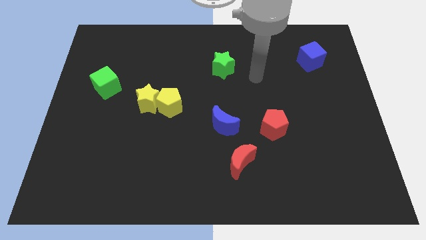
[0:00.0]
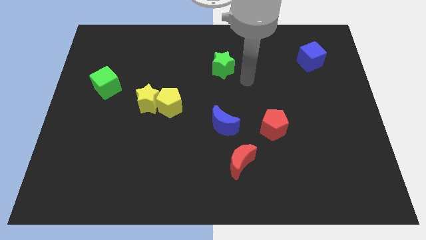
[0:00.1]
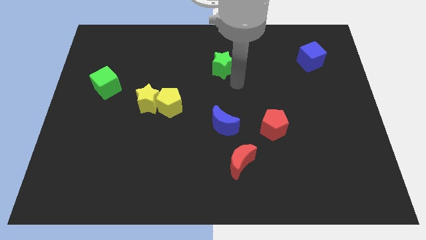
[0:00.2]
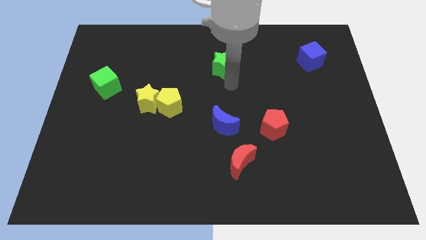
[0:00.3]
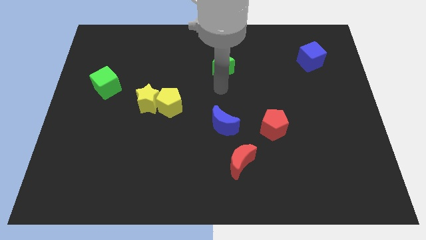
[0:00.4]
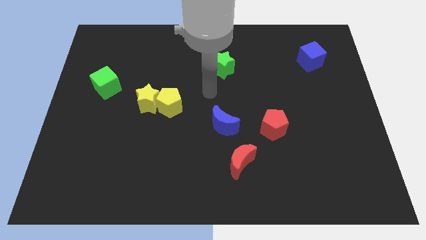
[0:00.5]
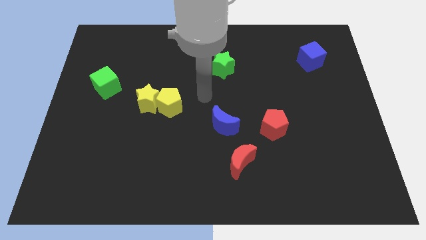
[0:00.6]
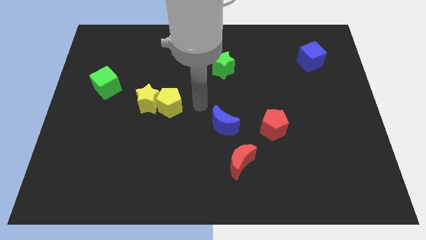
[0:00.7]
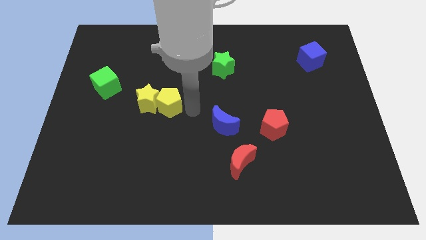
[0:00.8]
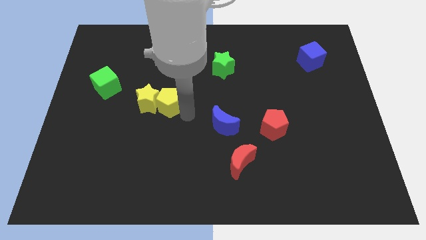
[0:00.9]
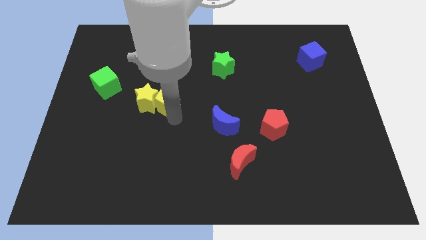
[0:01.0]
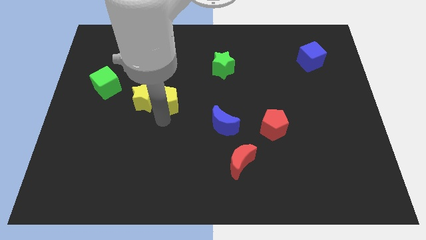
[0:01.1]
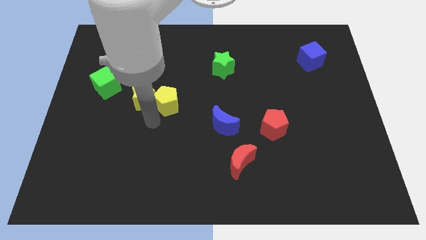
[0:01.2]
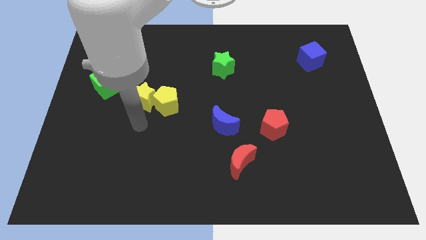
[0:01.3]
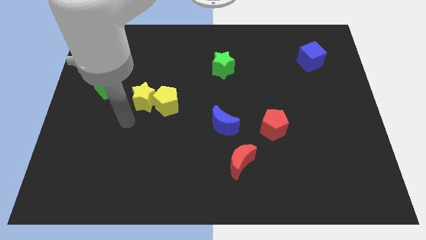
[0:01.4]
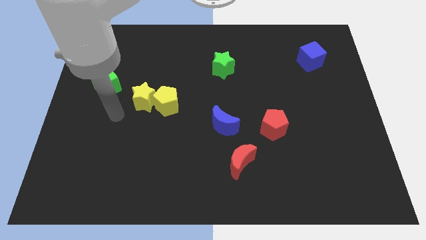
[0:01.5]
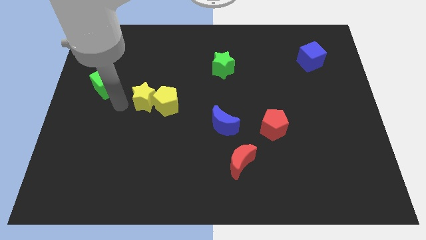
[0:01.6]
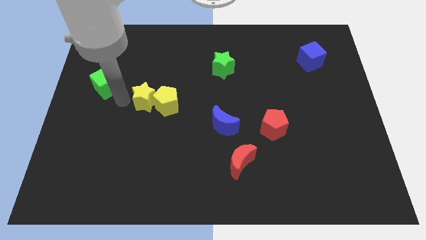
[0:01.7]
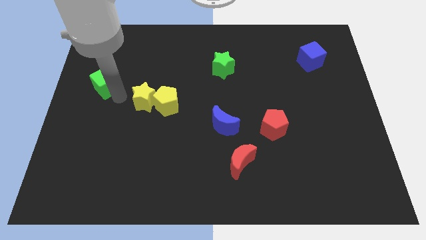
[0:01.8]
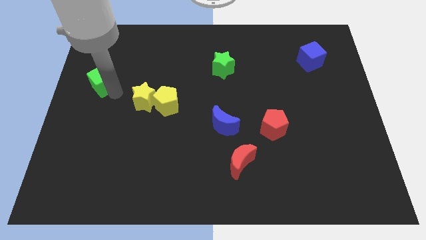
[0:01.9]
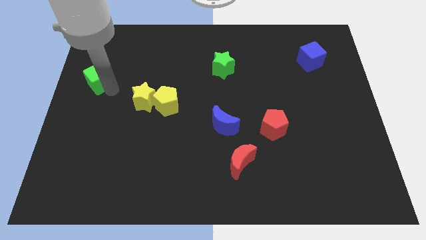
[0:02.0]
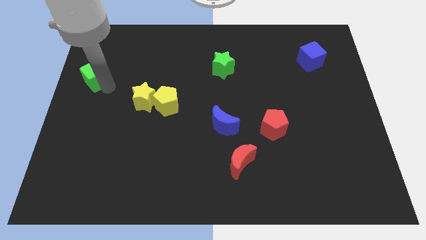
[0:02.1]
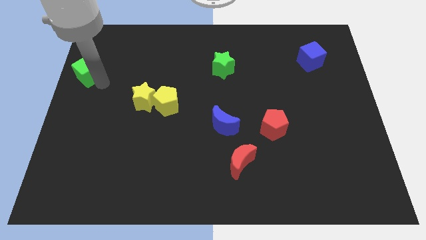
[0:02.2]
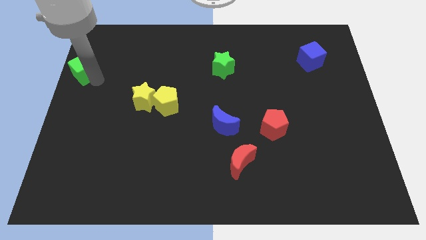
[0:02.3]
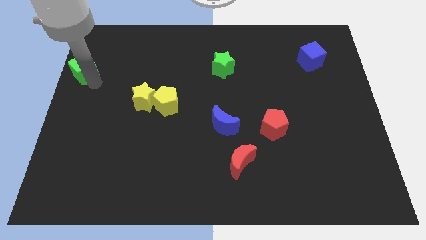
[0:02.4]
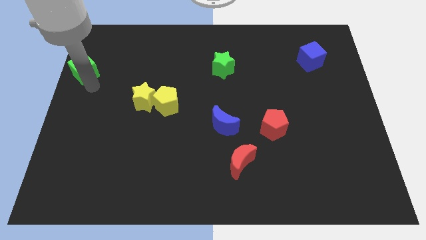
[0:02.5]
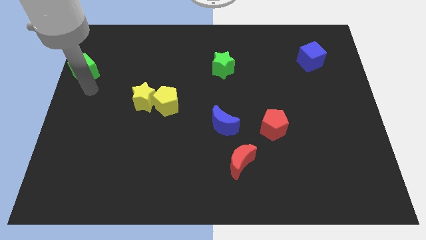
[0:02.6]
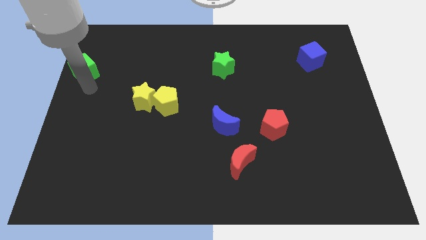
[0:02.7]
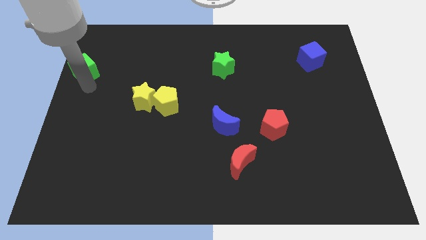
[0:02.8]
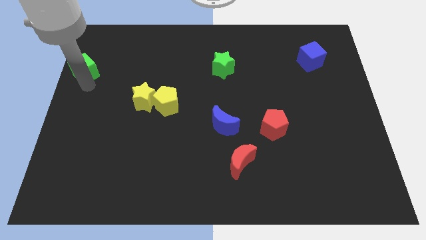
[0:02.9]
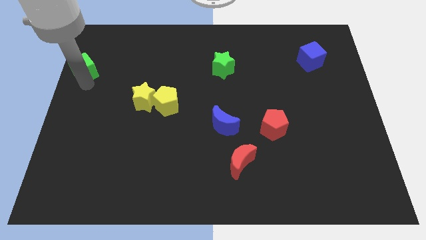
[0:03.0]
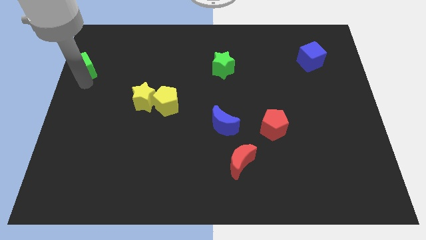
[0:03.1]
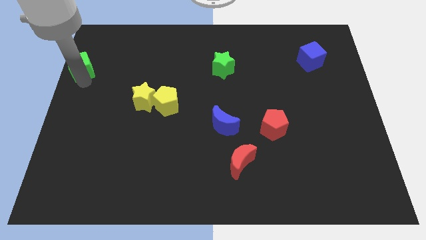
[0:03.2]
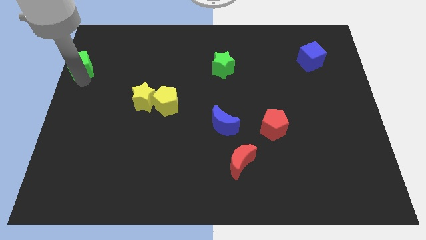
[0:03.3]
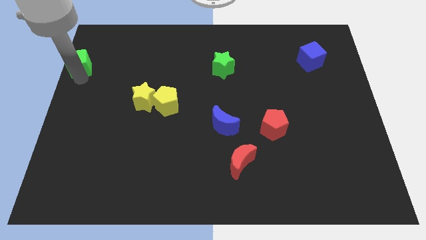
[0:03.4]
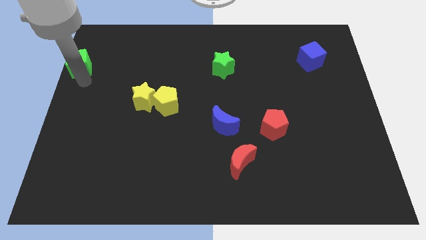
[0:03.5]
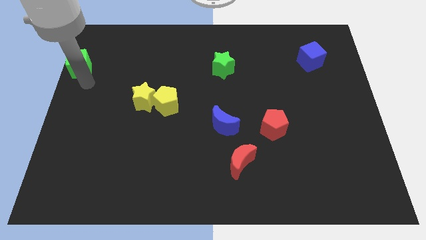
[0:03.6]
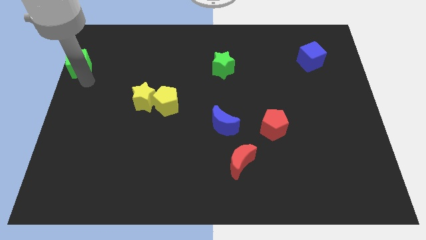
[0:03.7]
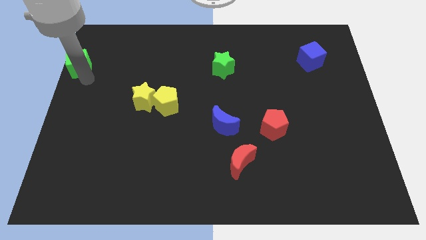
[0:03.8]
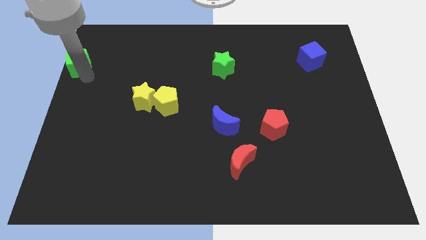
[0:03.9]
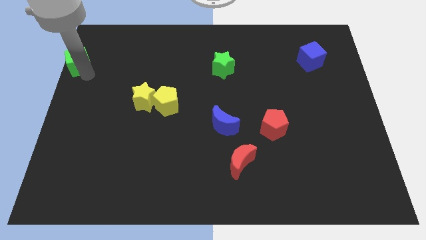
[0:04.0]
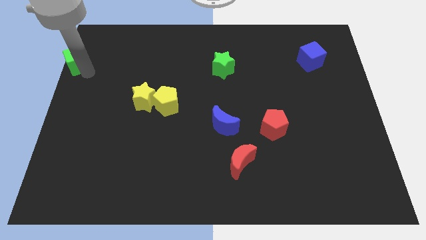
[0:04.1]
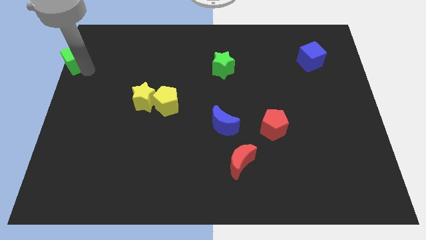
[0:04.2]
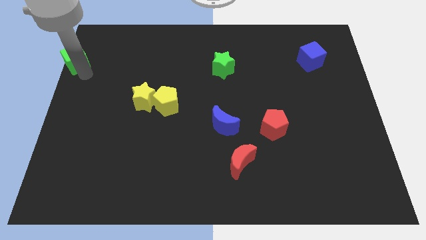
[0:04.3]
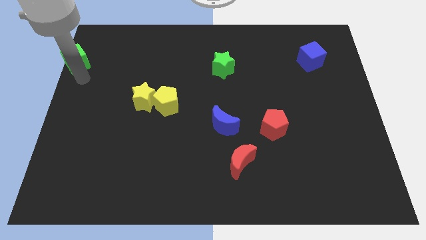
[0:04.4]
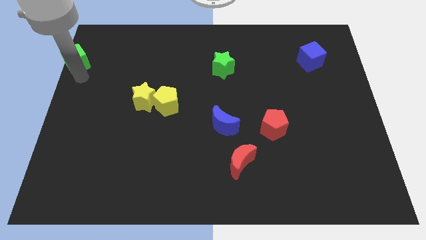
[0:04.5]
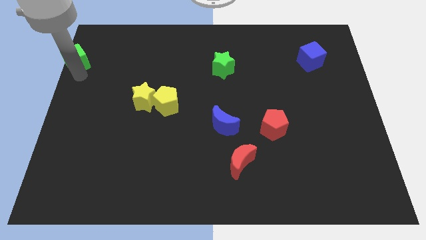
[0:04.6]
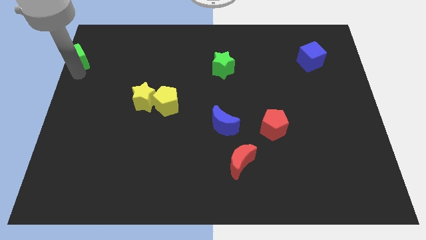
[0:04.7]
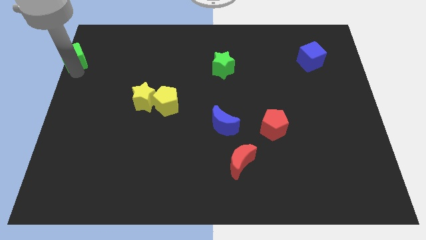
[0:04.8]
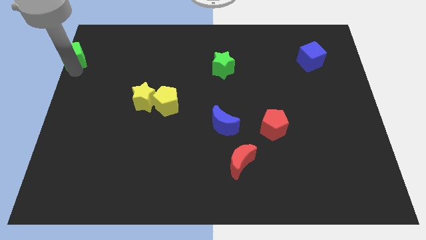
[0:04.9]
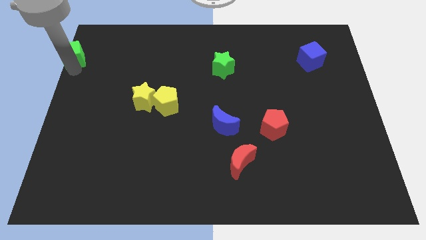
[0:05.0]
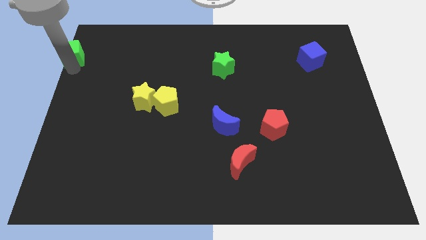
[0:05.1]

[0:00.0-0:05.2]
move the green cube to the top left of the board
